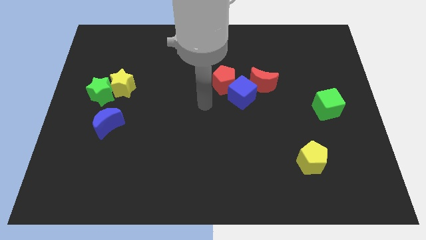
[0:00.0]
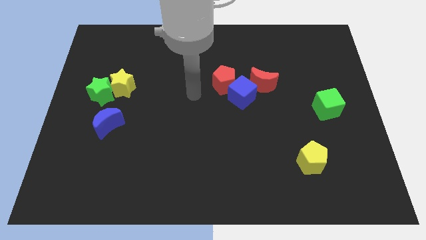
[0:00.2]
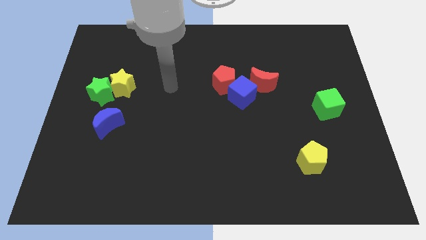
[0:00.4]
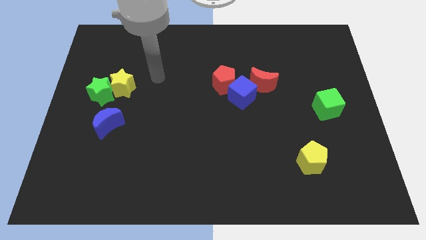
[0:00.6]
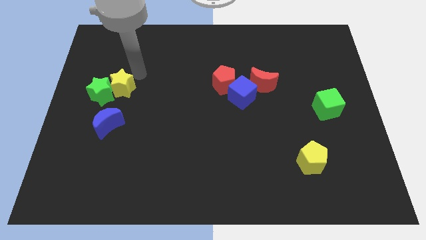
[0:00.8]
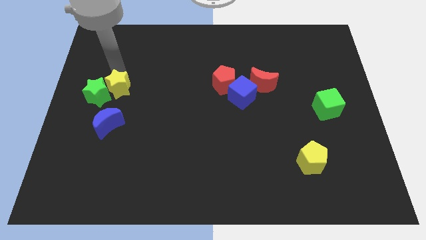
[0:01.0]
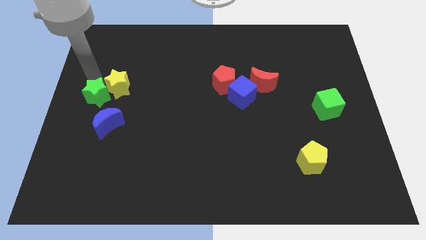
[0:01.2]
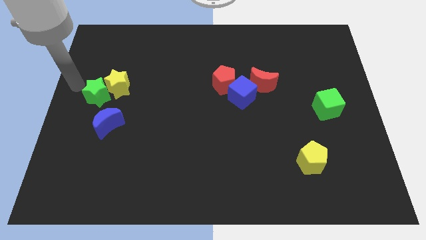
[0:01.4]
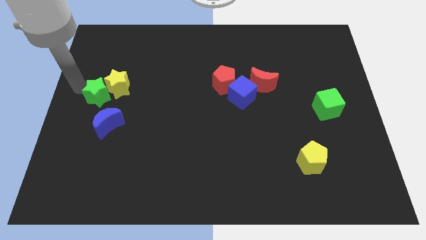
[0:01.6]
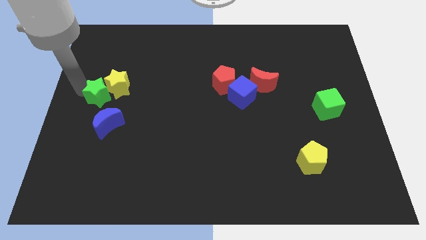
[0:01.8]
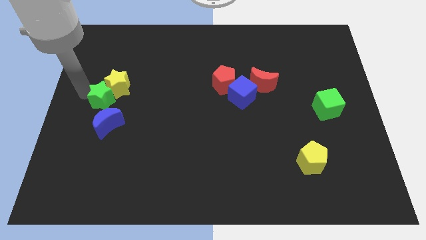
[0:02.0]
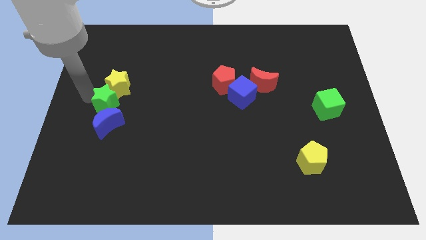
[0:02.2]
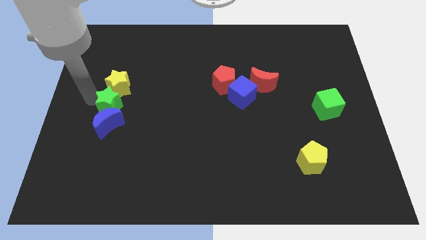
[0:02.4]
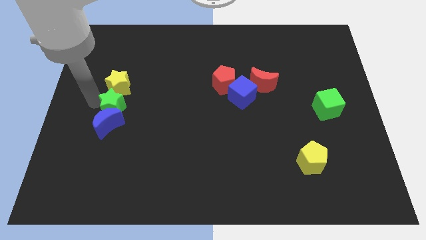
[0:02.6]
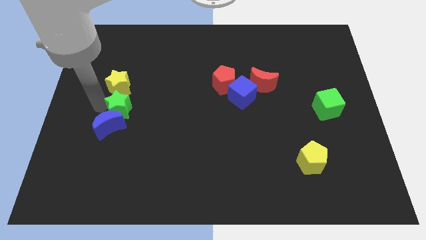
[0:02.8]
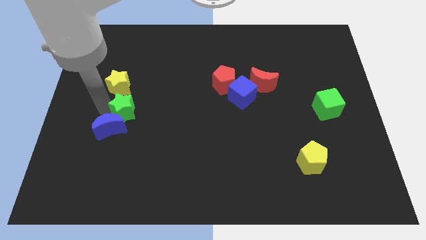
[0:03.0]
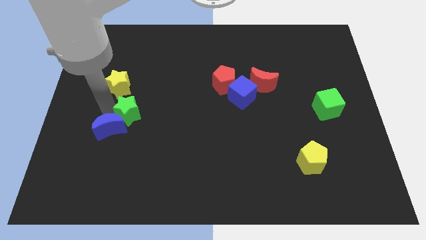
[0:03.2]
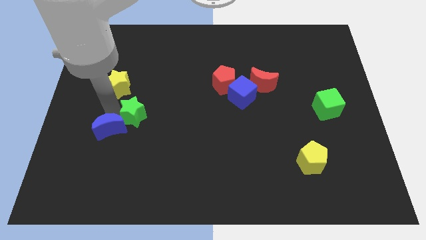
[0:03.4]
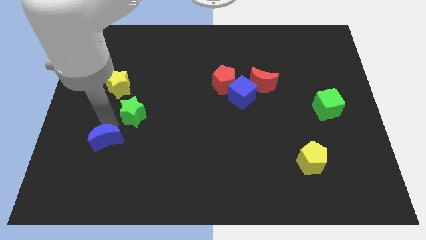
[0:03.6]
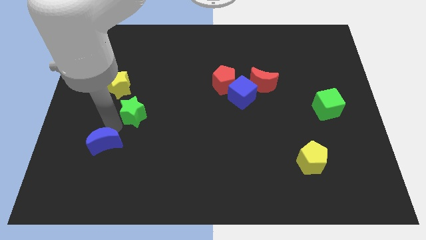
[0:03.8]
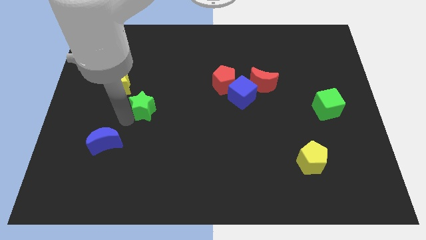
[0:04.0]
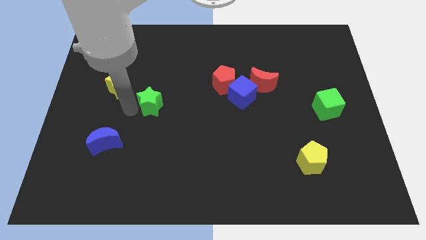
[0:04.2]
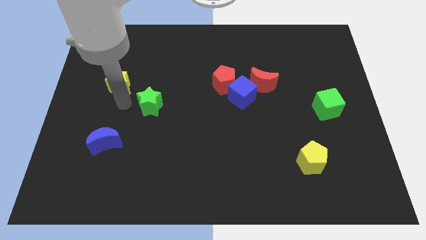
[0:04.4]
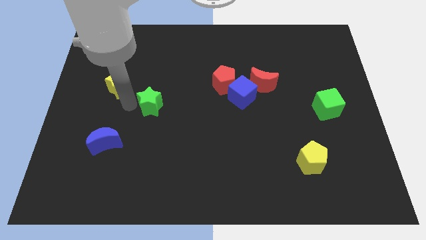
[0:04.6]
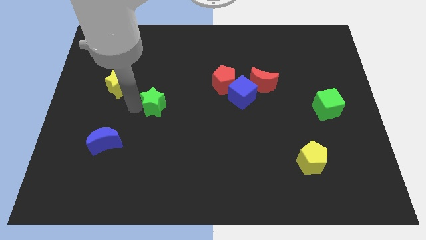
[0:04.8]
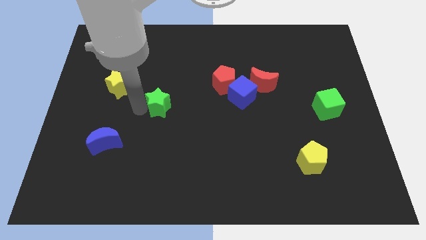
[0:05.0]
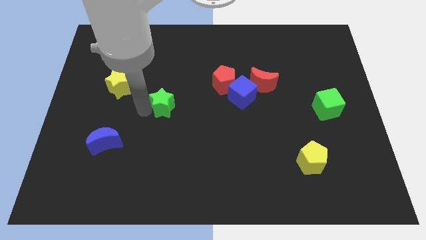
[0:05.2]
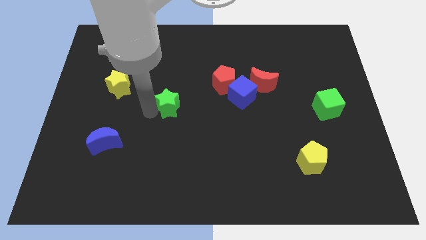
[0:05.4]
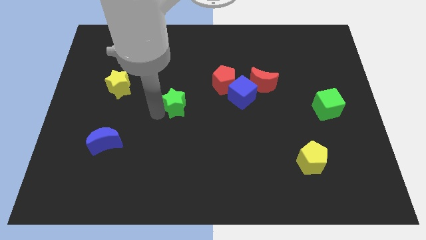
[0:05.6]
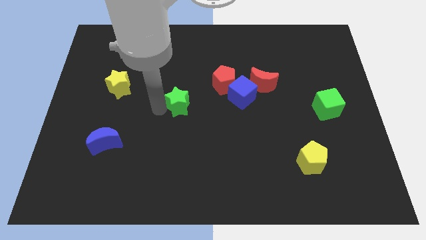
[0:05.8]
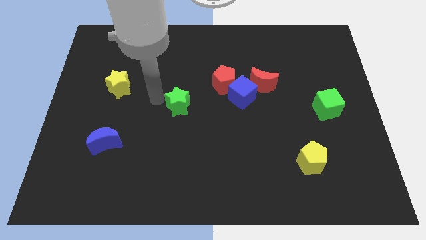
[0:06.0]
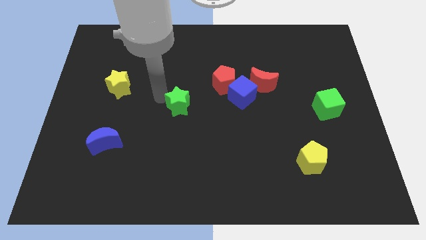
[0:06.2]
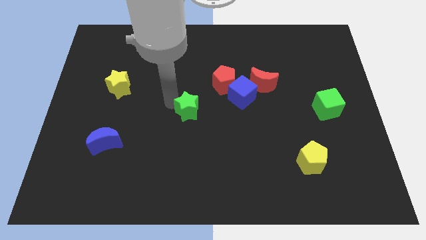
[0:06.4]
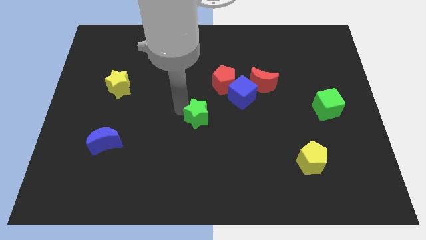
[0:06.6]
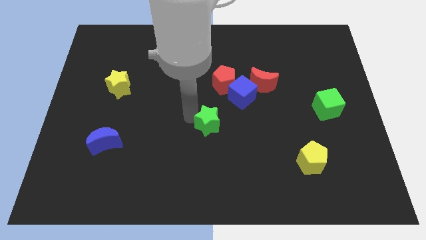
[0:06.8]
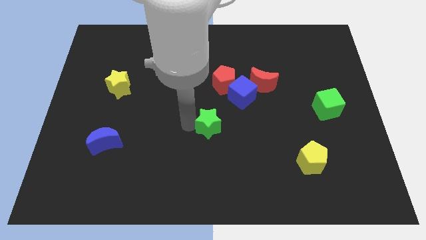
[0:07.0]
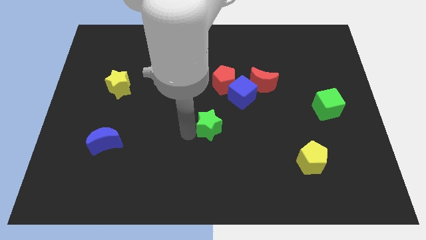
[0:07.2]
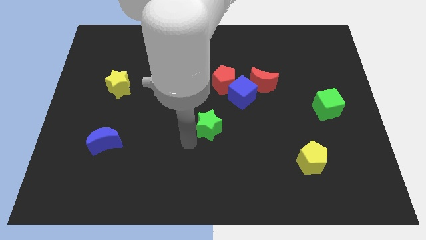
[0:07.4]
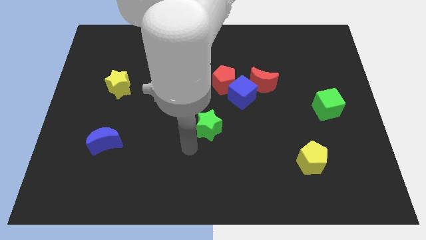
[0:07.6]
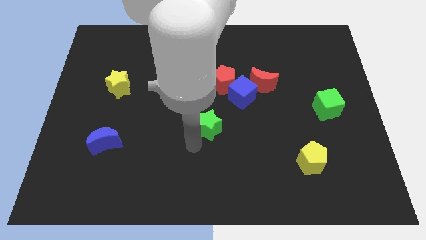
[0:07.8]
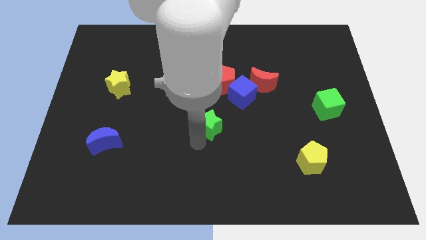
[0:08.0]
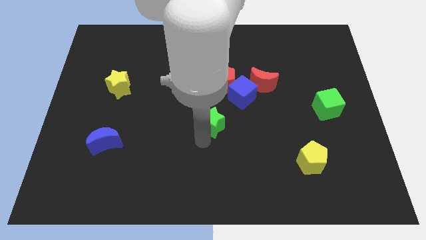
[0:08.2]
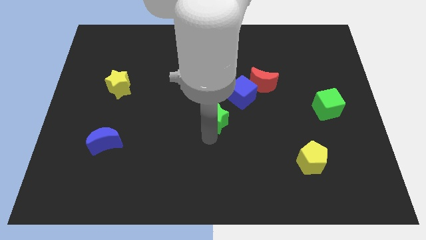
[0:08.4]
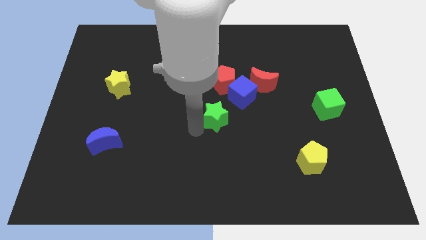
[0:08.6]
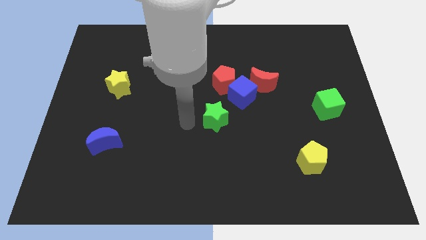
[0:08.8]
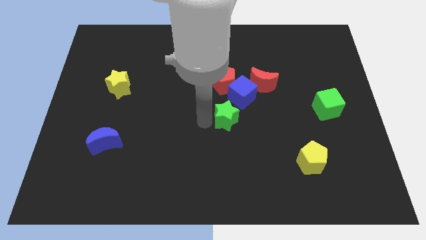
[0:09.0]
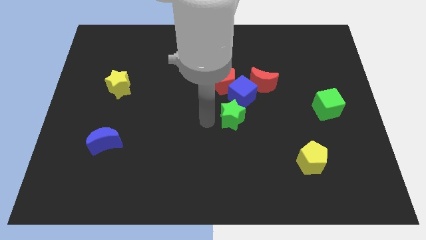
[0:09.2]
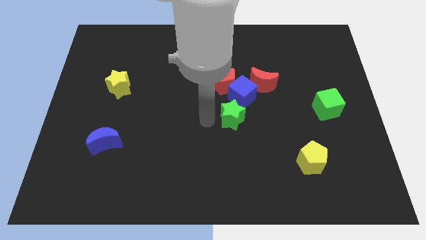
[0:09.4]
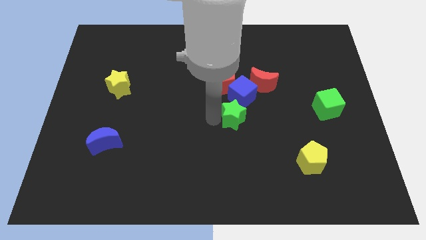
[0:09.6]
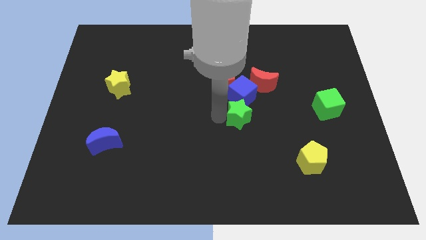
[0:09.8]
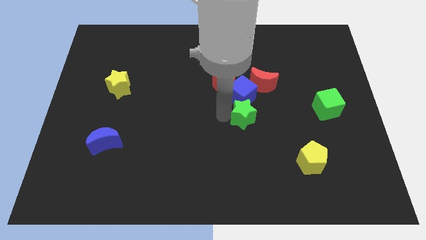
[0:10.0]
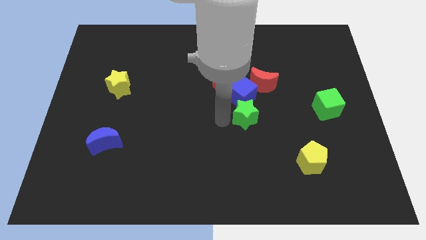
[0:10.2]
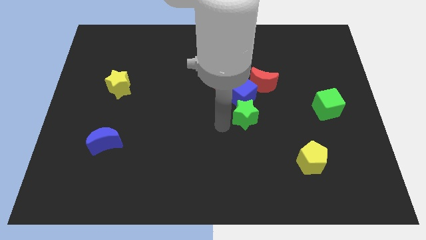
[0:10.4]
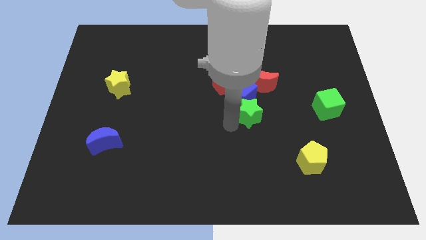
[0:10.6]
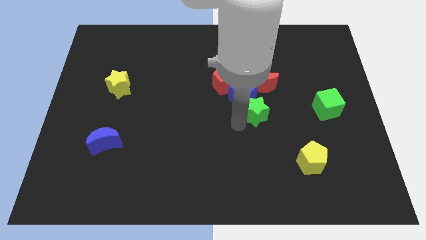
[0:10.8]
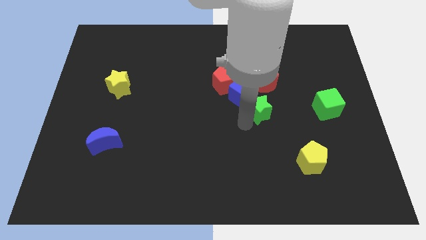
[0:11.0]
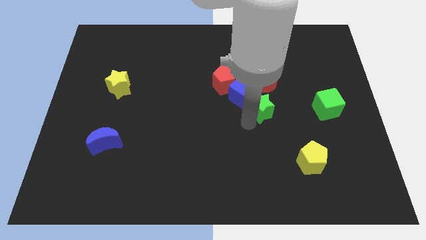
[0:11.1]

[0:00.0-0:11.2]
move the green star left of the green cube

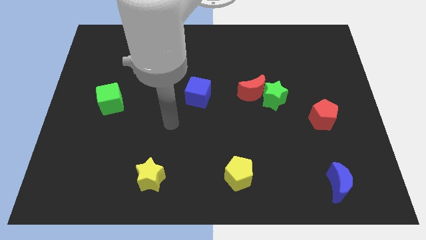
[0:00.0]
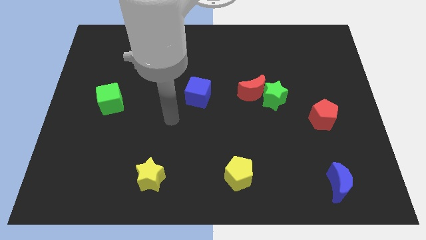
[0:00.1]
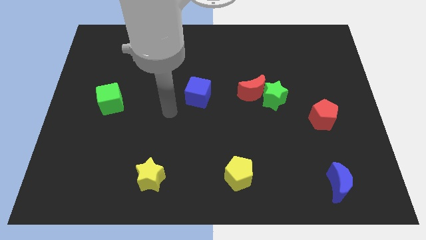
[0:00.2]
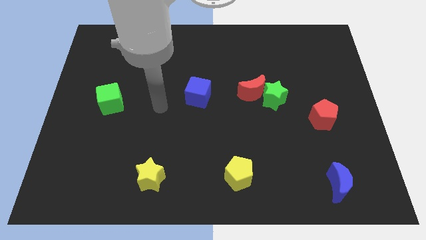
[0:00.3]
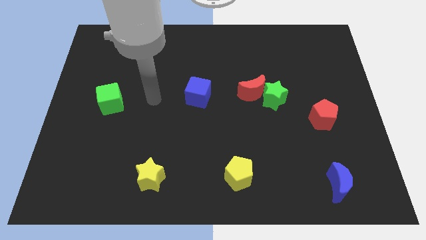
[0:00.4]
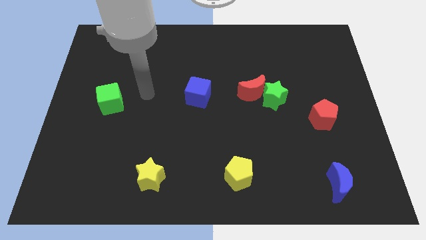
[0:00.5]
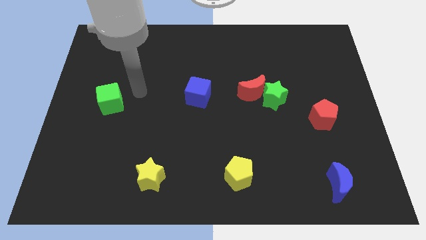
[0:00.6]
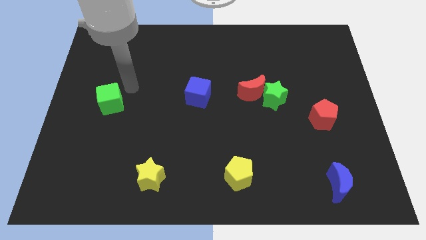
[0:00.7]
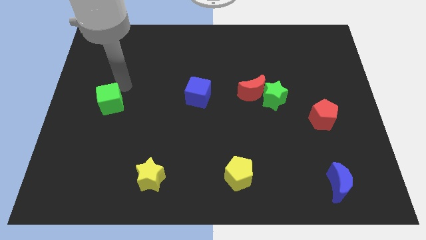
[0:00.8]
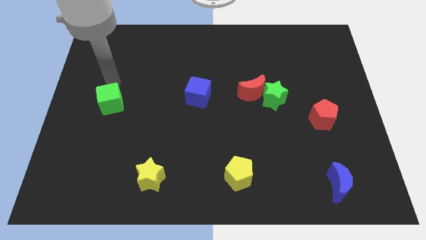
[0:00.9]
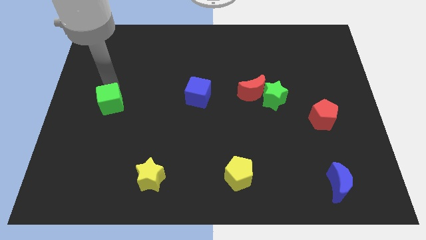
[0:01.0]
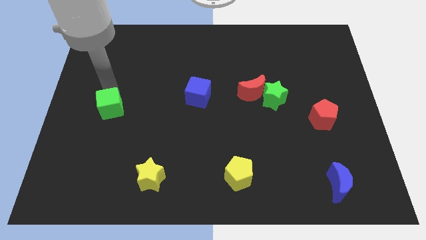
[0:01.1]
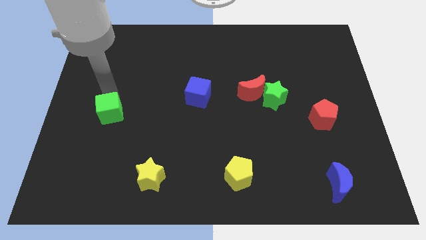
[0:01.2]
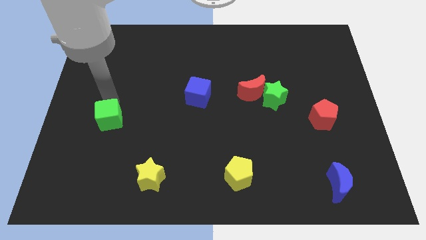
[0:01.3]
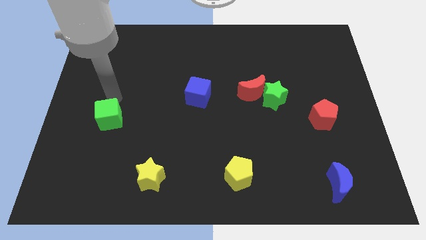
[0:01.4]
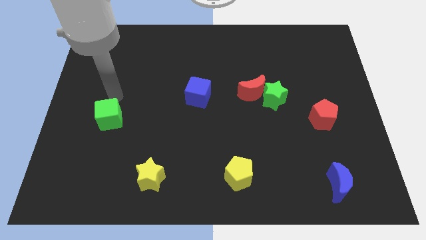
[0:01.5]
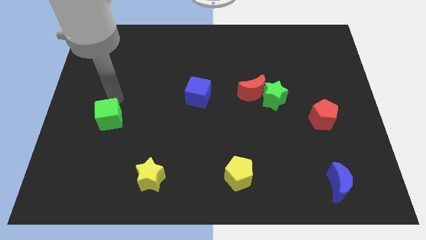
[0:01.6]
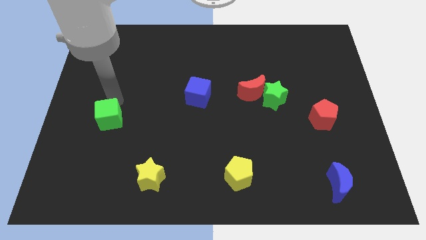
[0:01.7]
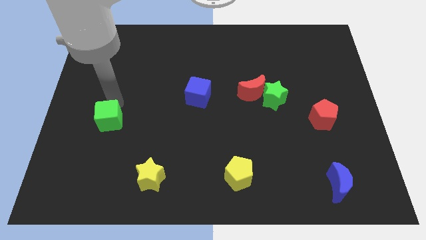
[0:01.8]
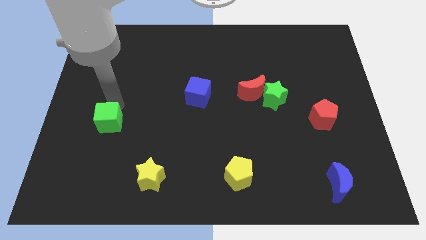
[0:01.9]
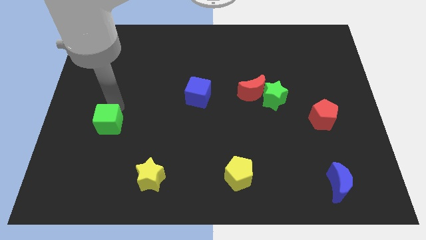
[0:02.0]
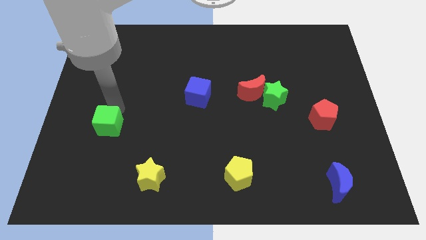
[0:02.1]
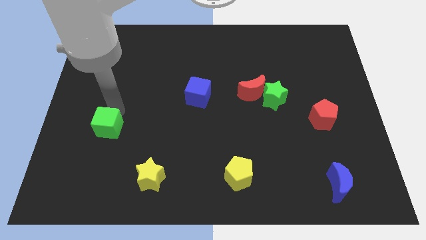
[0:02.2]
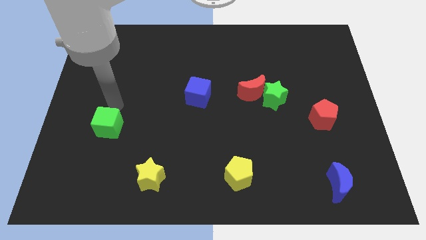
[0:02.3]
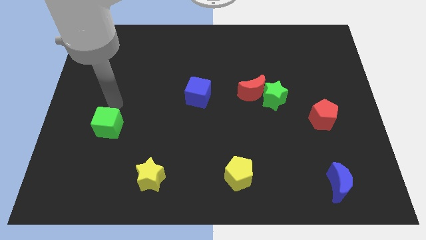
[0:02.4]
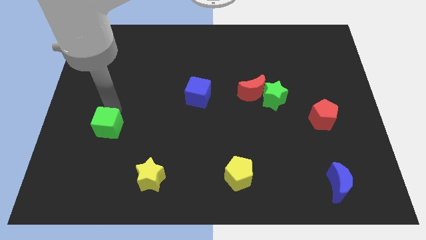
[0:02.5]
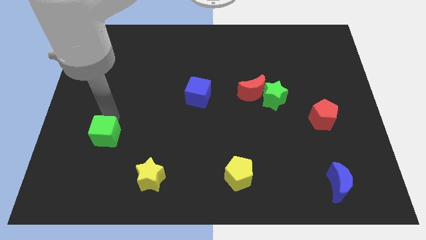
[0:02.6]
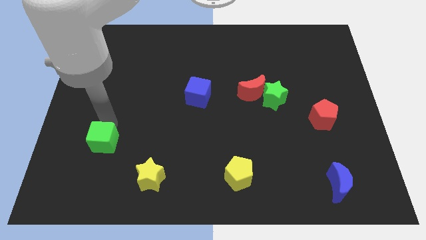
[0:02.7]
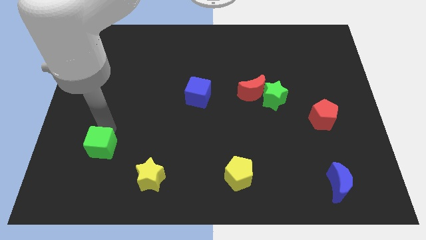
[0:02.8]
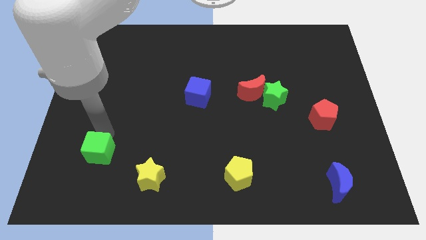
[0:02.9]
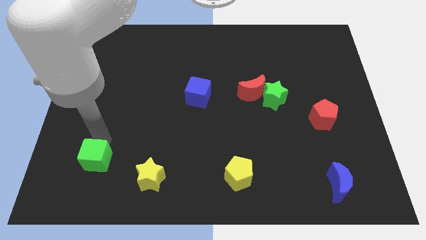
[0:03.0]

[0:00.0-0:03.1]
push the green cube left of the yellow star
